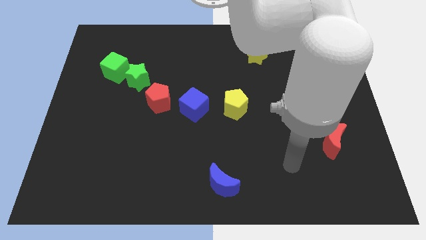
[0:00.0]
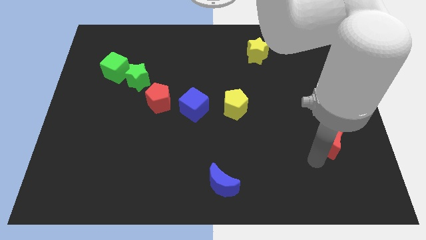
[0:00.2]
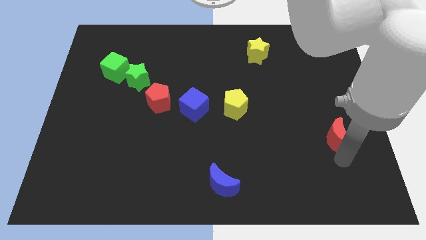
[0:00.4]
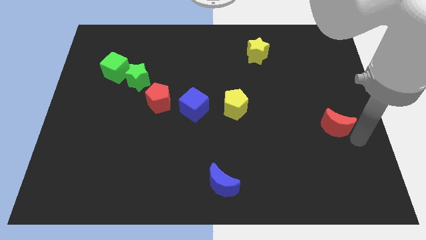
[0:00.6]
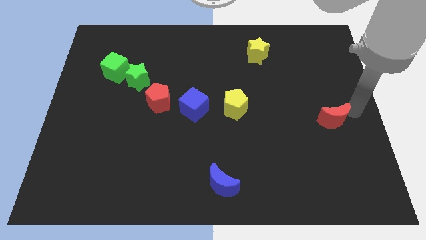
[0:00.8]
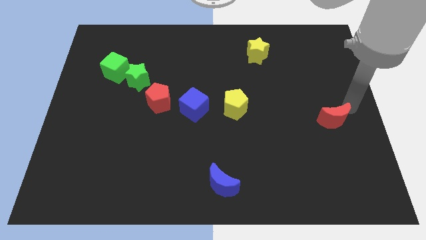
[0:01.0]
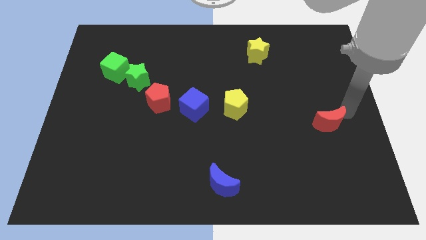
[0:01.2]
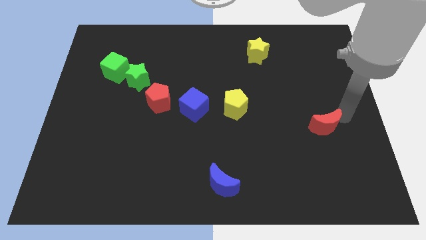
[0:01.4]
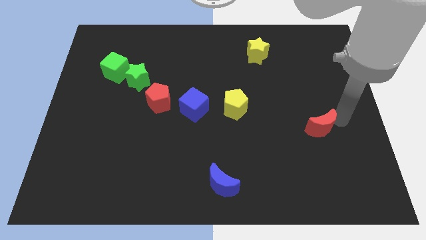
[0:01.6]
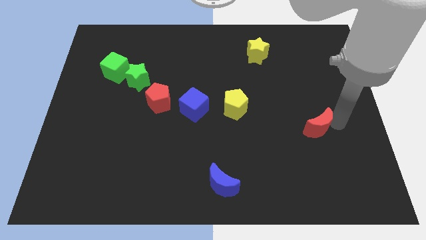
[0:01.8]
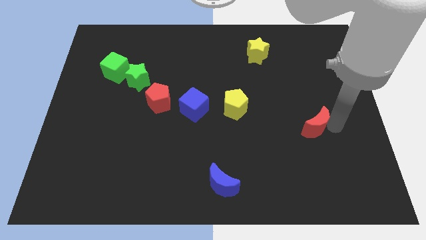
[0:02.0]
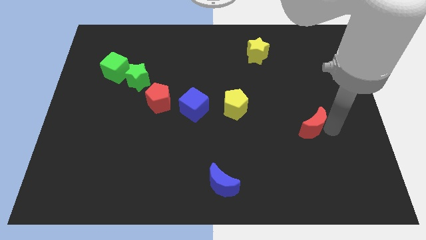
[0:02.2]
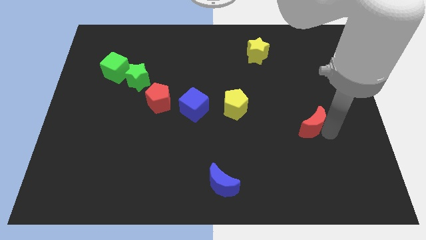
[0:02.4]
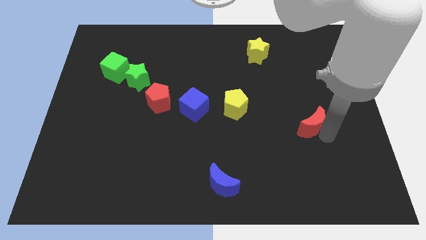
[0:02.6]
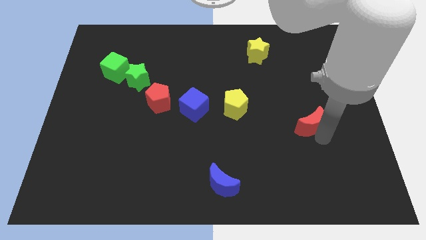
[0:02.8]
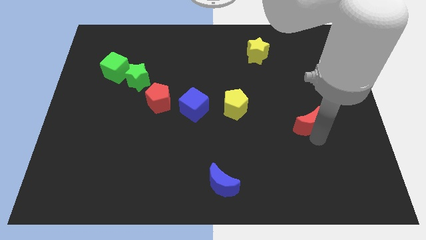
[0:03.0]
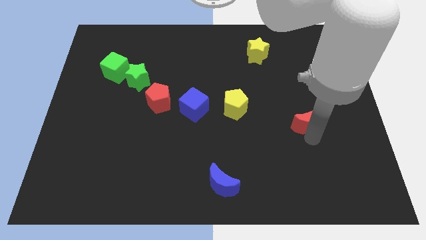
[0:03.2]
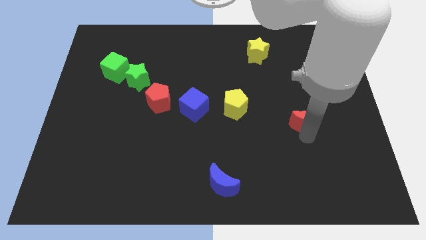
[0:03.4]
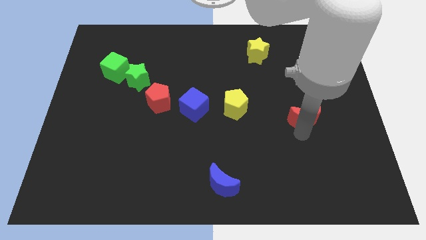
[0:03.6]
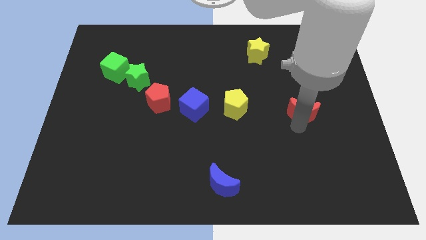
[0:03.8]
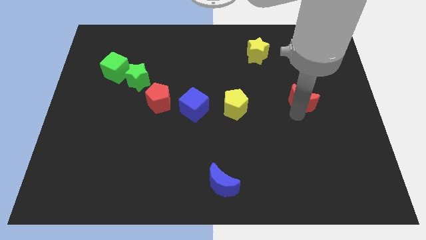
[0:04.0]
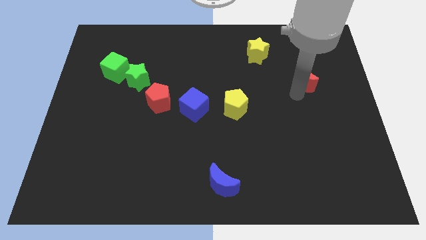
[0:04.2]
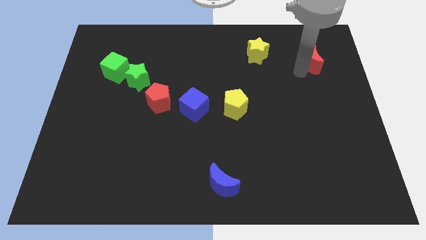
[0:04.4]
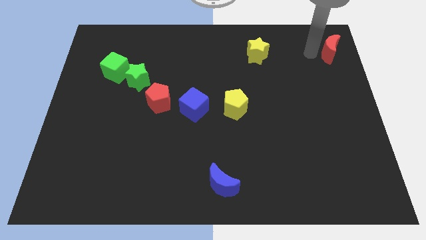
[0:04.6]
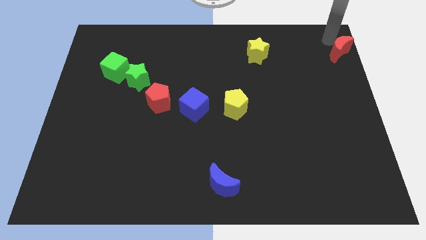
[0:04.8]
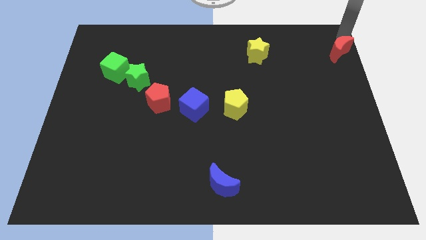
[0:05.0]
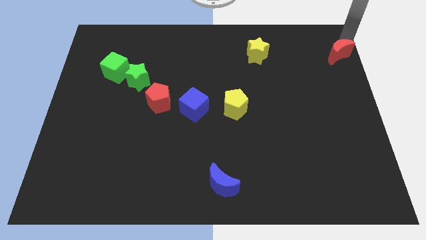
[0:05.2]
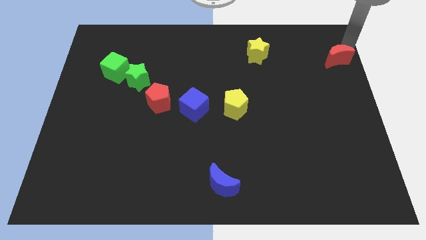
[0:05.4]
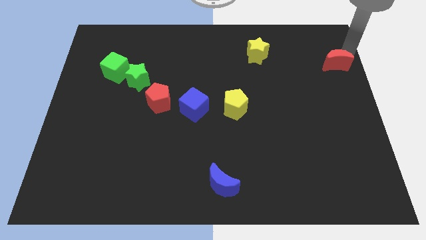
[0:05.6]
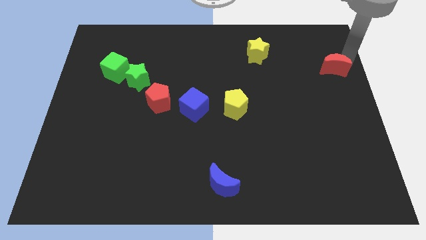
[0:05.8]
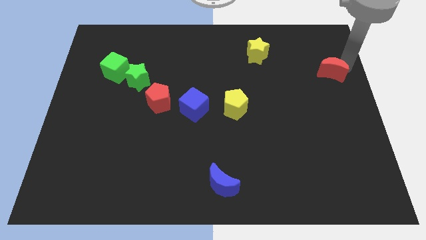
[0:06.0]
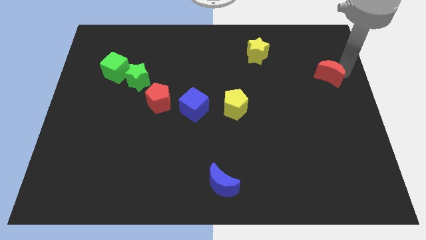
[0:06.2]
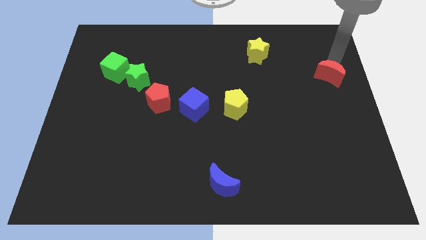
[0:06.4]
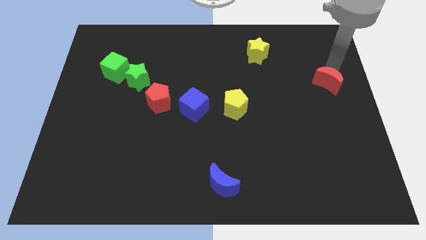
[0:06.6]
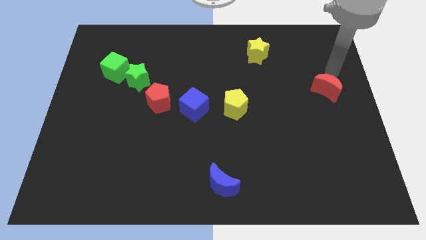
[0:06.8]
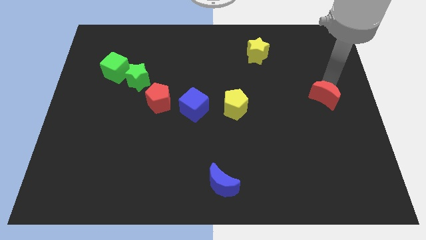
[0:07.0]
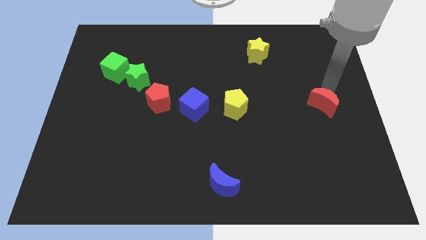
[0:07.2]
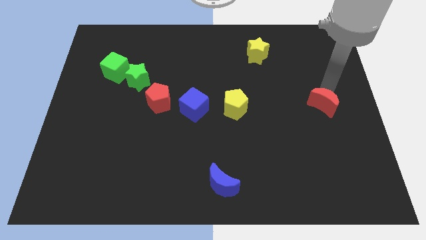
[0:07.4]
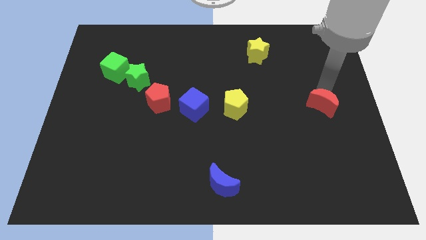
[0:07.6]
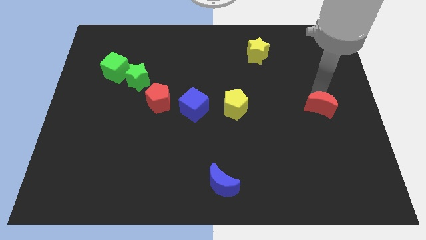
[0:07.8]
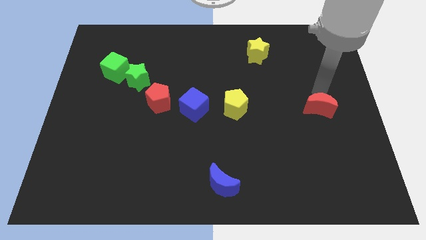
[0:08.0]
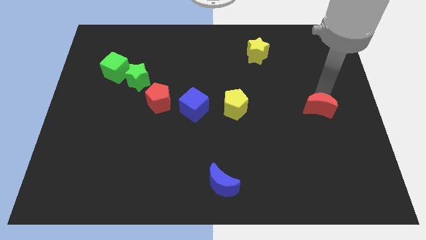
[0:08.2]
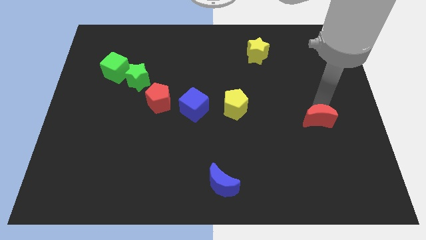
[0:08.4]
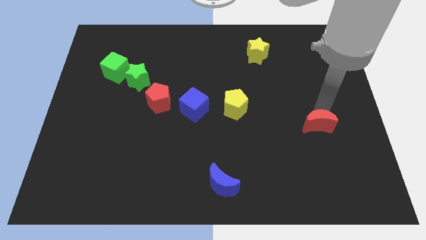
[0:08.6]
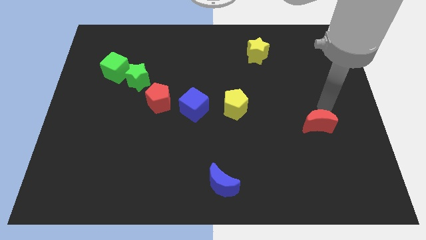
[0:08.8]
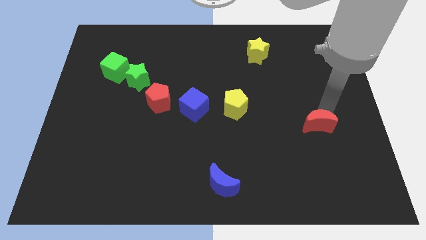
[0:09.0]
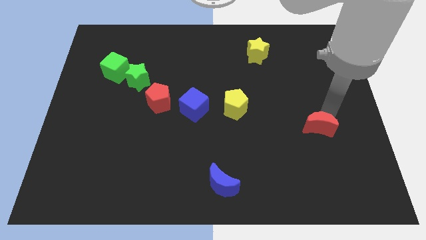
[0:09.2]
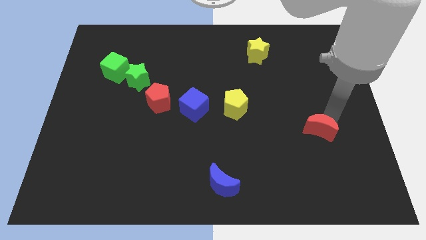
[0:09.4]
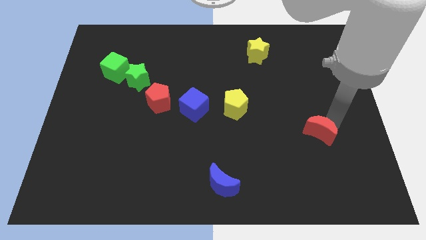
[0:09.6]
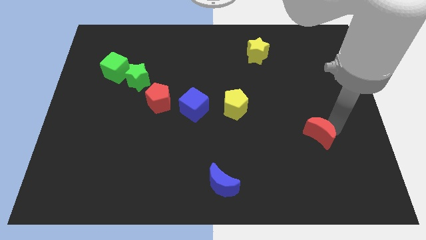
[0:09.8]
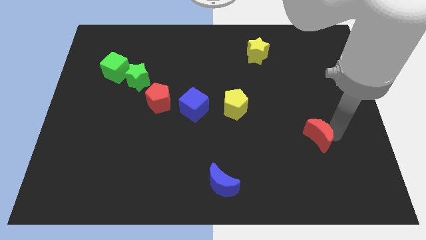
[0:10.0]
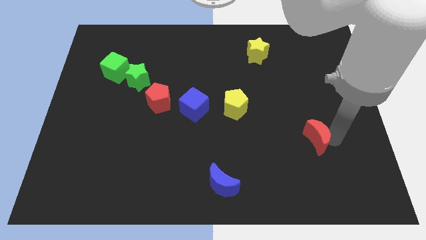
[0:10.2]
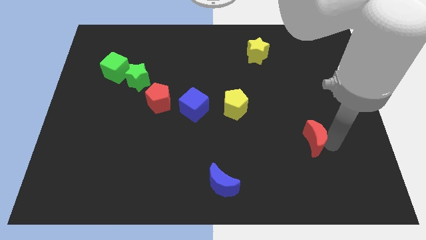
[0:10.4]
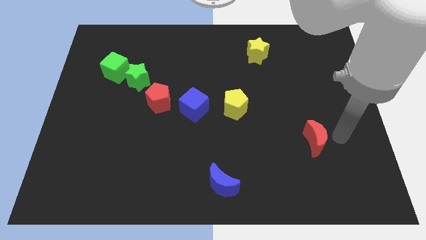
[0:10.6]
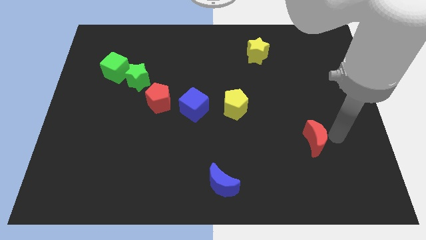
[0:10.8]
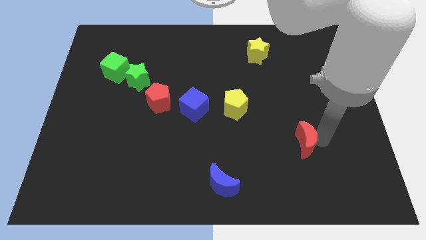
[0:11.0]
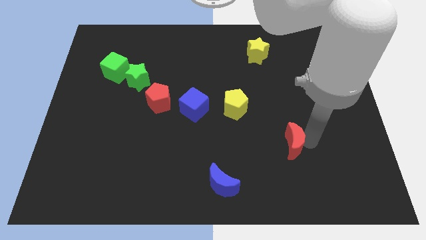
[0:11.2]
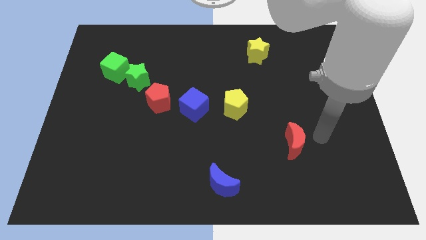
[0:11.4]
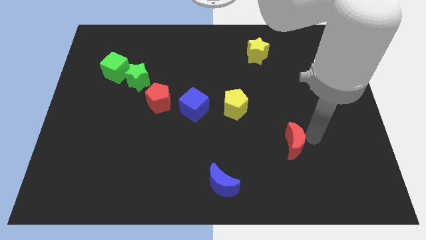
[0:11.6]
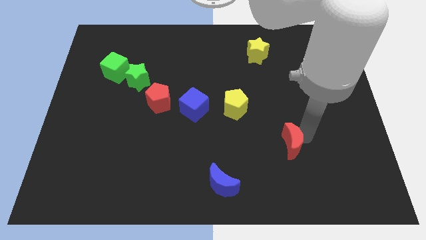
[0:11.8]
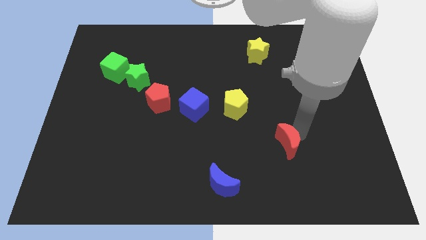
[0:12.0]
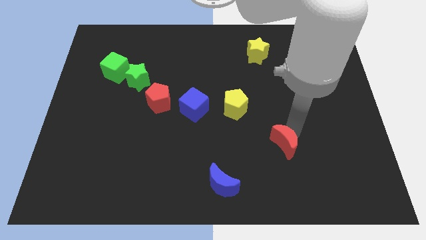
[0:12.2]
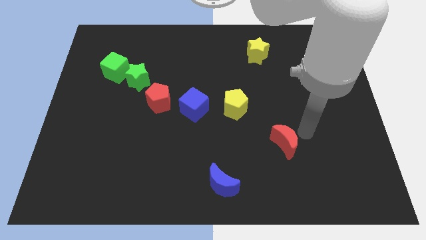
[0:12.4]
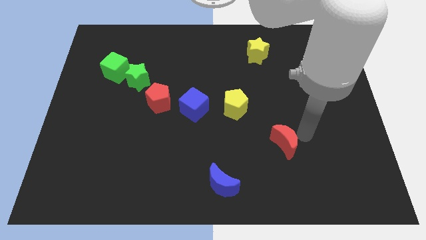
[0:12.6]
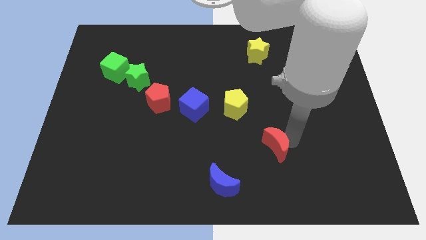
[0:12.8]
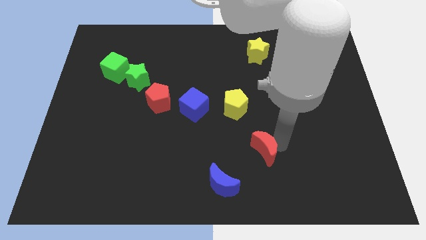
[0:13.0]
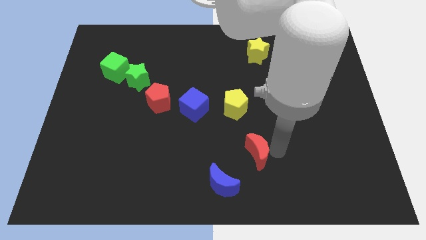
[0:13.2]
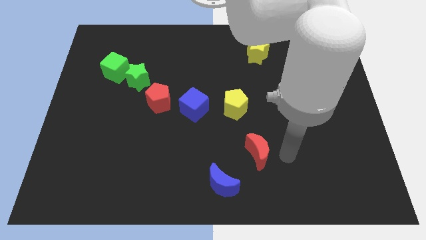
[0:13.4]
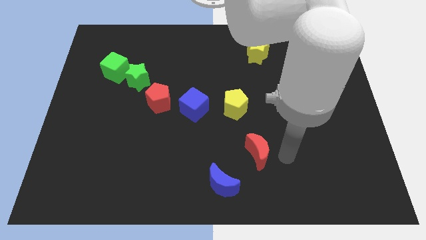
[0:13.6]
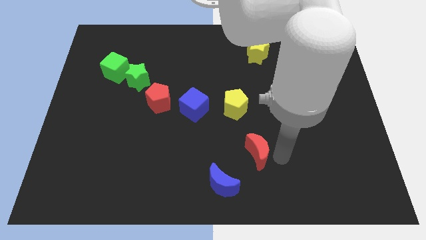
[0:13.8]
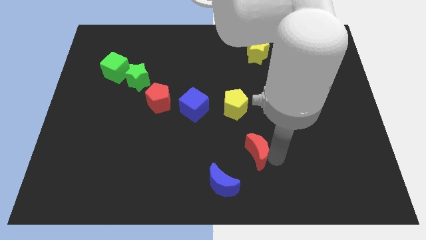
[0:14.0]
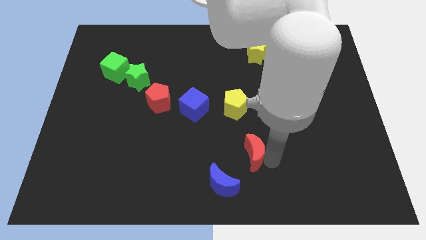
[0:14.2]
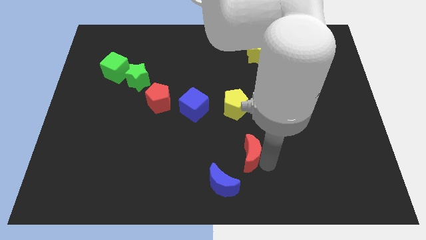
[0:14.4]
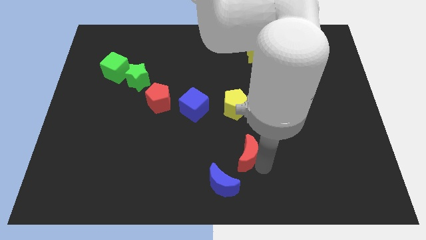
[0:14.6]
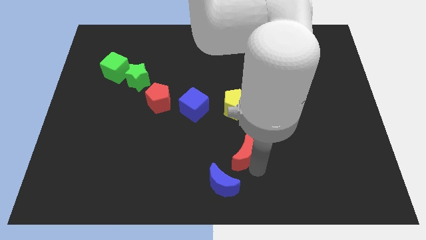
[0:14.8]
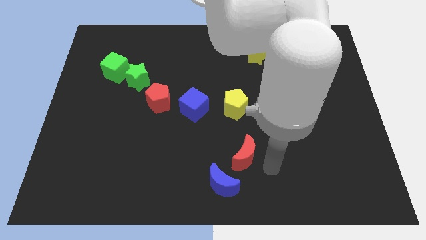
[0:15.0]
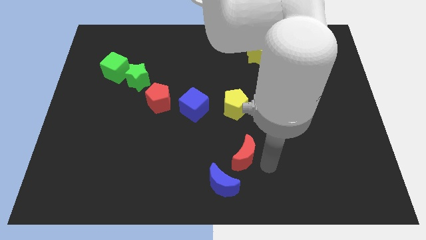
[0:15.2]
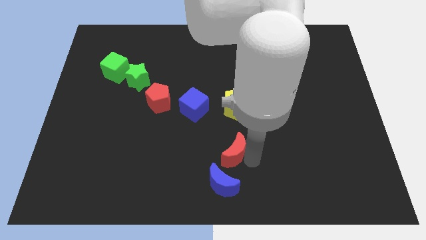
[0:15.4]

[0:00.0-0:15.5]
slide the red moon left
